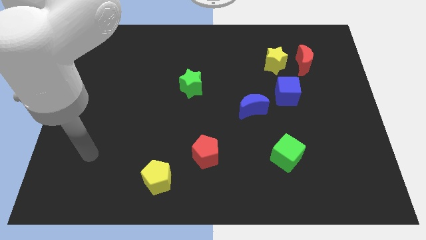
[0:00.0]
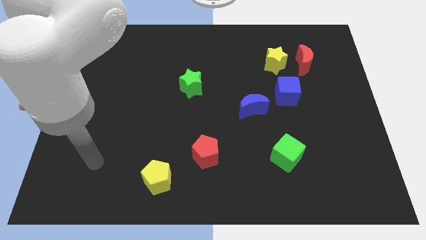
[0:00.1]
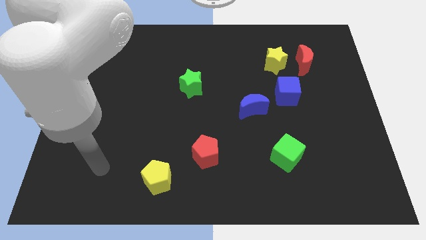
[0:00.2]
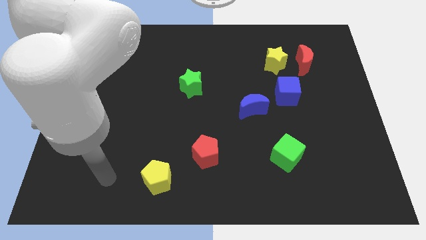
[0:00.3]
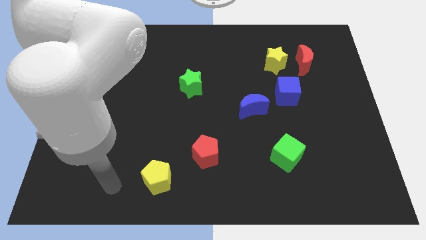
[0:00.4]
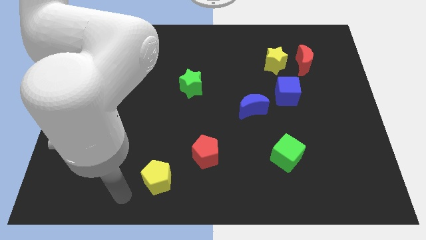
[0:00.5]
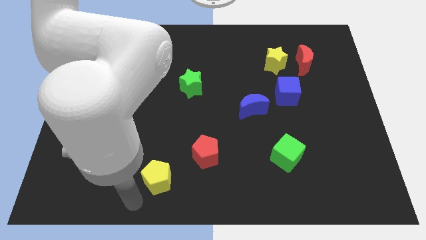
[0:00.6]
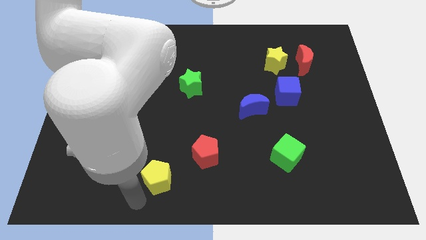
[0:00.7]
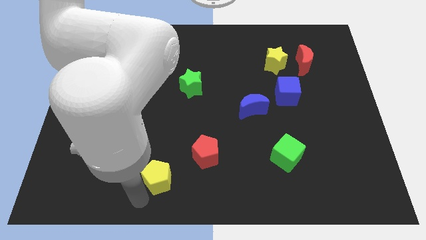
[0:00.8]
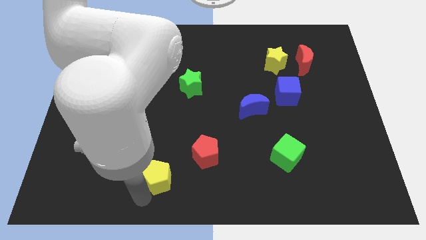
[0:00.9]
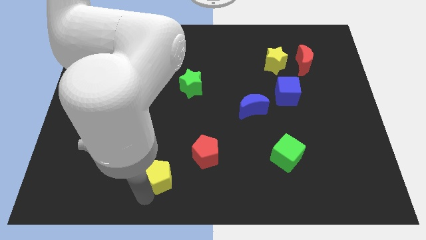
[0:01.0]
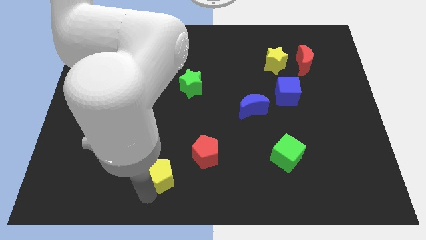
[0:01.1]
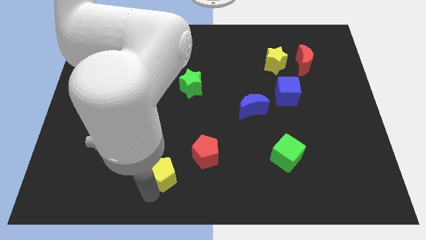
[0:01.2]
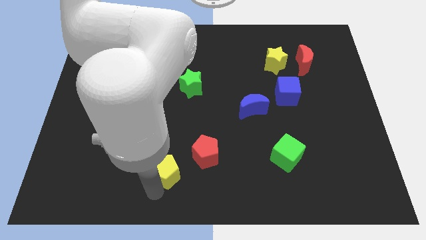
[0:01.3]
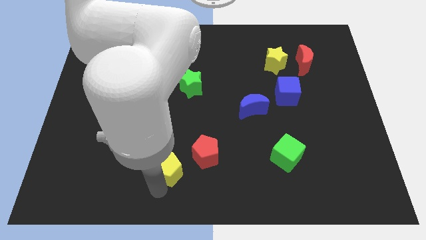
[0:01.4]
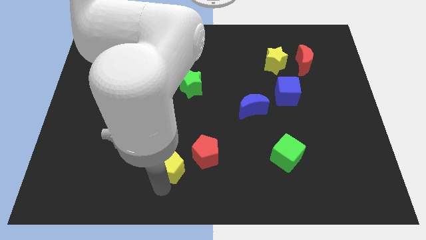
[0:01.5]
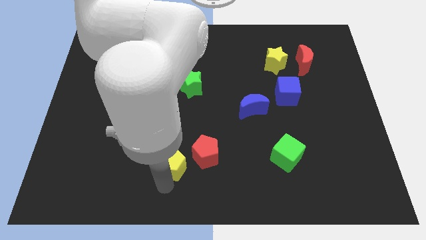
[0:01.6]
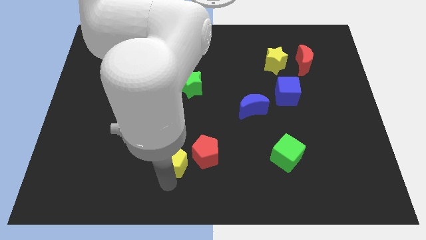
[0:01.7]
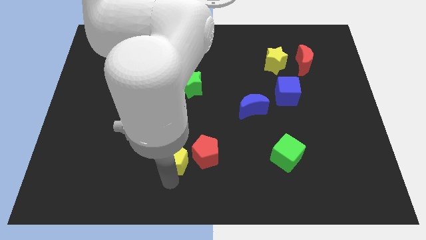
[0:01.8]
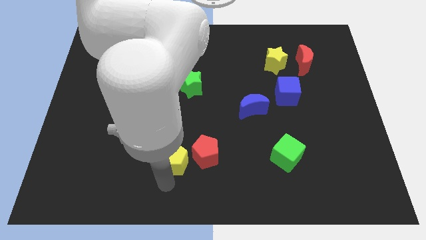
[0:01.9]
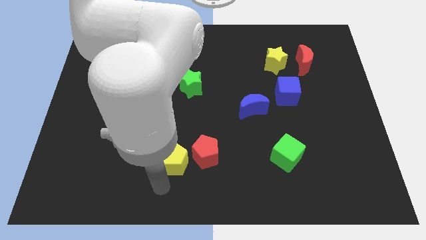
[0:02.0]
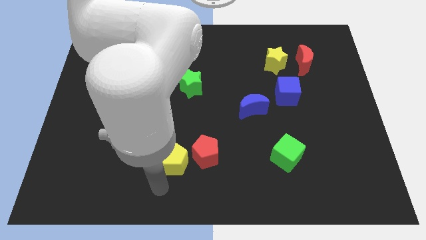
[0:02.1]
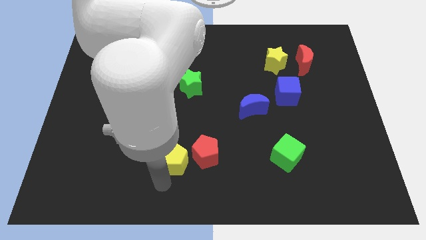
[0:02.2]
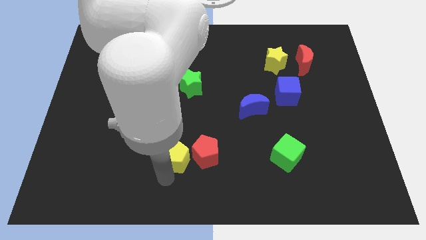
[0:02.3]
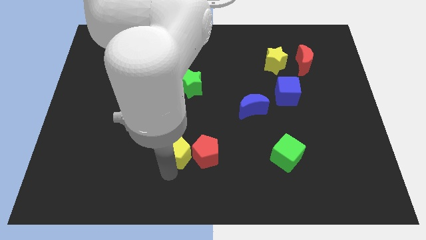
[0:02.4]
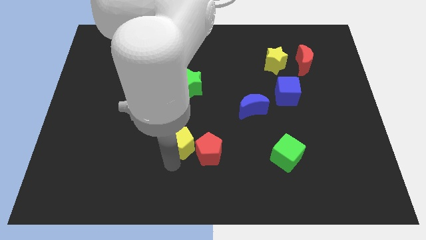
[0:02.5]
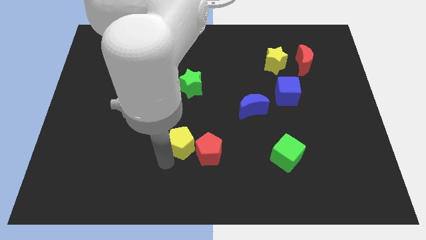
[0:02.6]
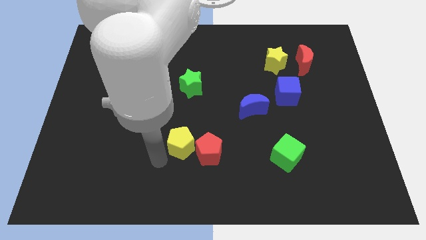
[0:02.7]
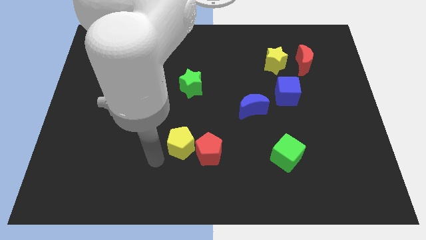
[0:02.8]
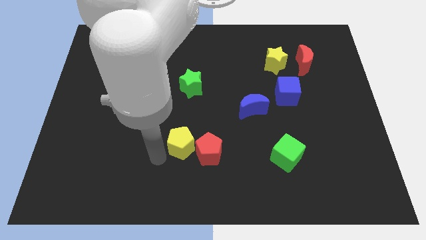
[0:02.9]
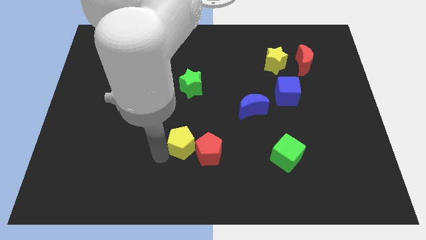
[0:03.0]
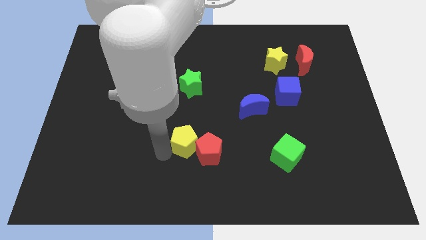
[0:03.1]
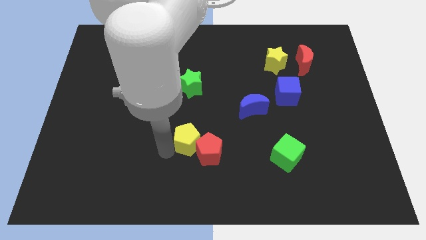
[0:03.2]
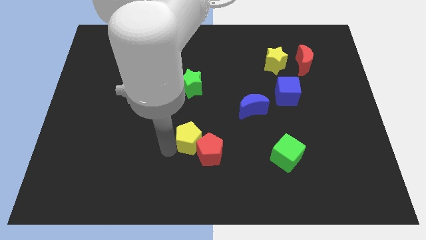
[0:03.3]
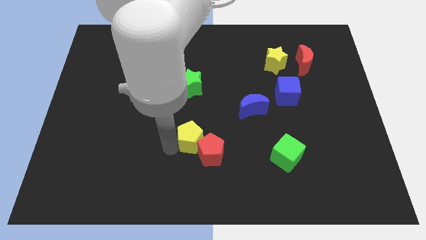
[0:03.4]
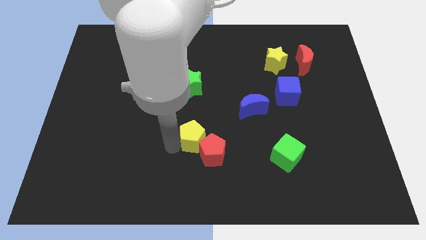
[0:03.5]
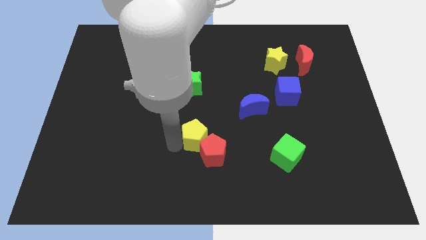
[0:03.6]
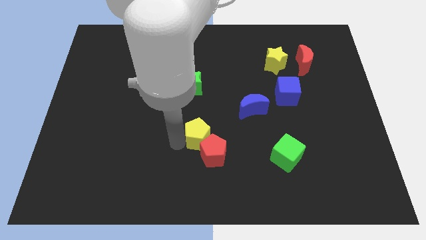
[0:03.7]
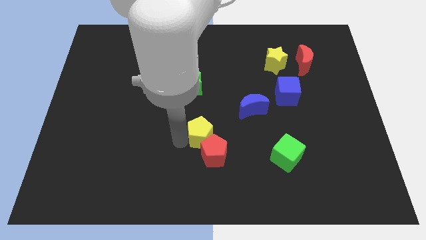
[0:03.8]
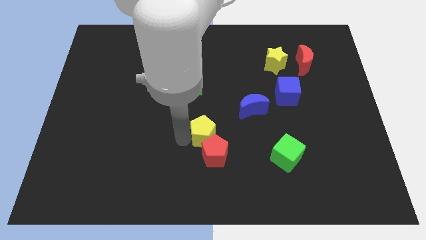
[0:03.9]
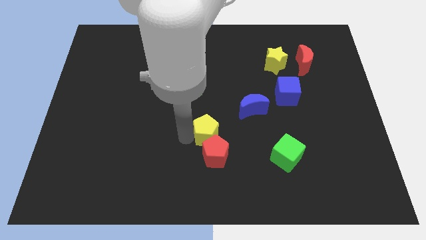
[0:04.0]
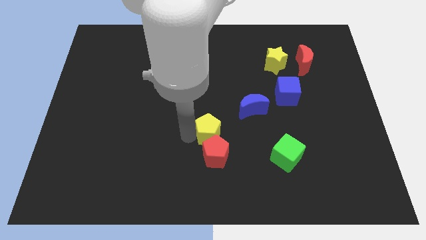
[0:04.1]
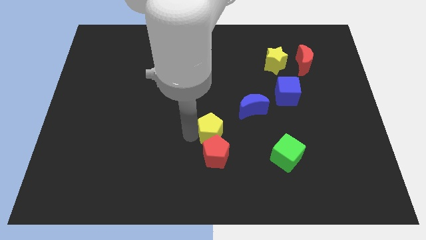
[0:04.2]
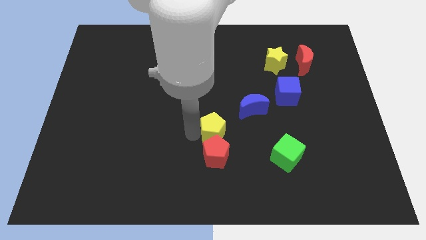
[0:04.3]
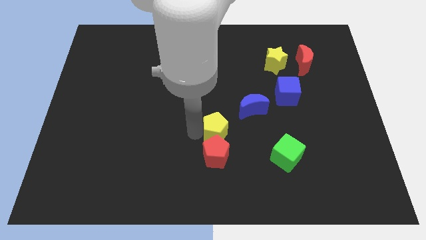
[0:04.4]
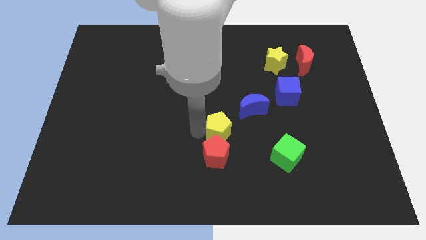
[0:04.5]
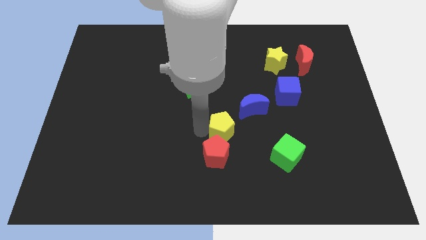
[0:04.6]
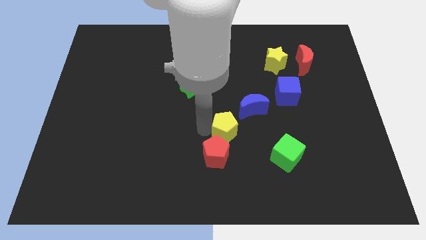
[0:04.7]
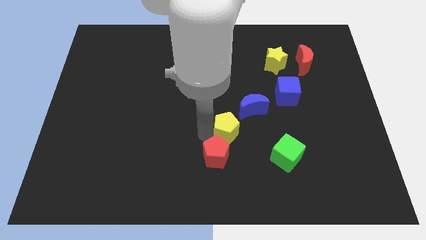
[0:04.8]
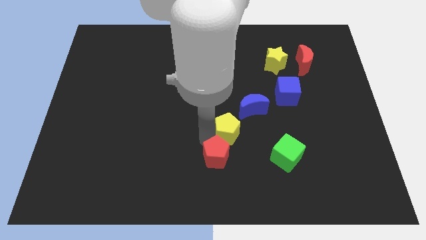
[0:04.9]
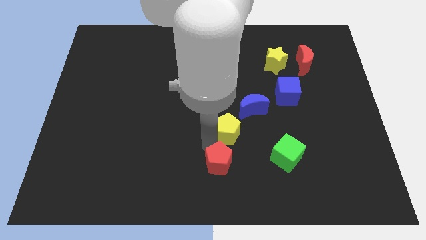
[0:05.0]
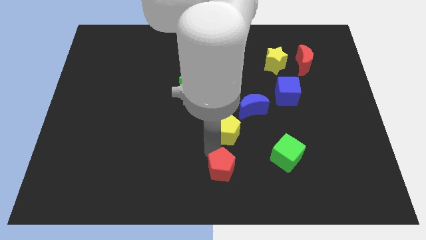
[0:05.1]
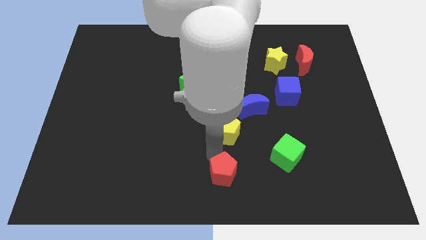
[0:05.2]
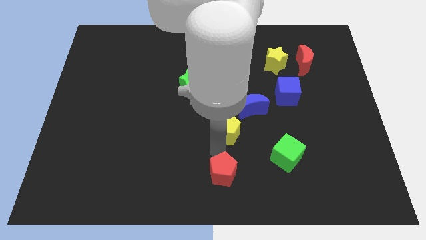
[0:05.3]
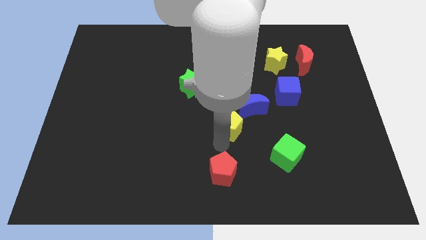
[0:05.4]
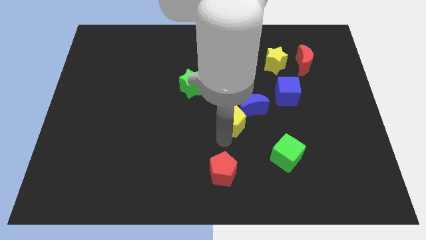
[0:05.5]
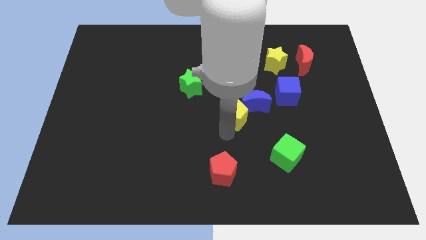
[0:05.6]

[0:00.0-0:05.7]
slide the yellow pentagon towards the blue moon

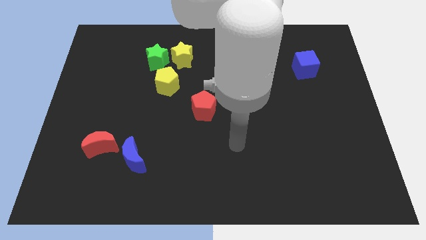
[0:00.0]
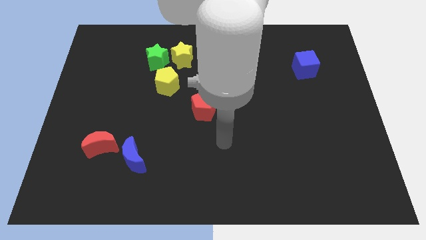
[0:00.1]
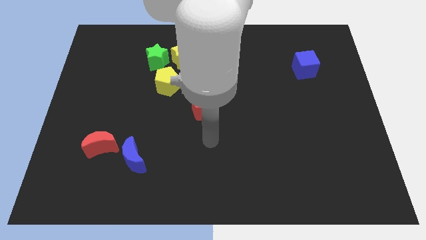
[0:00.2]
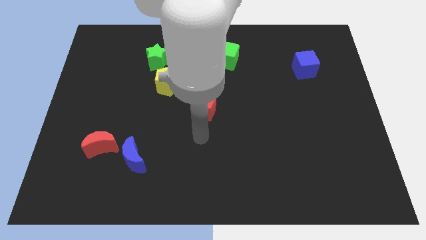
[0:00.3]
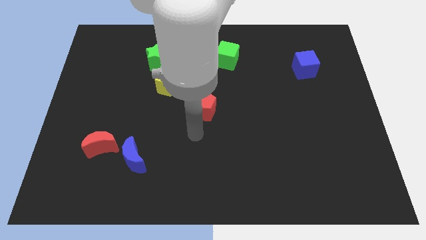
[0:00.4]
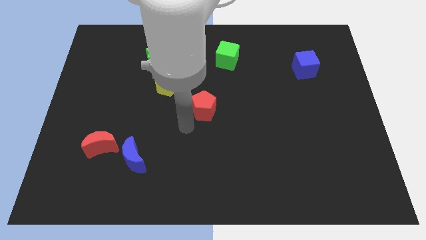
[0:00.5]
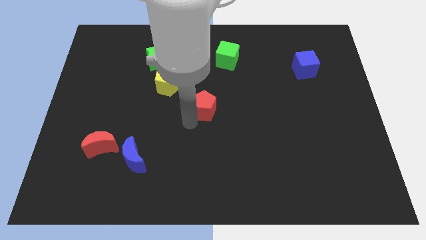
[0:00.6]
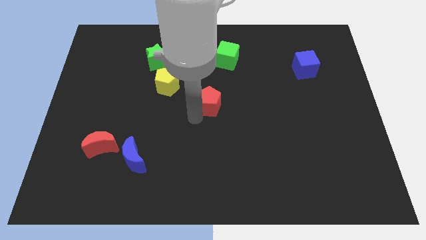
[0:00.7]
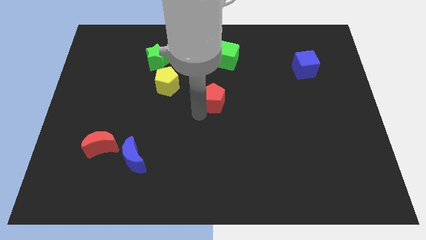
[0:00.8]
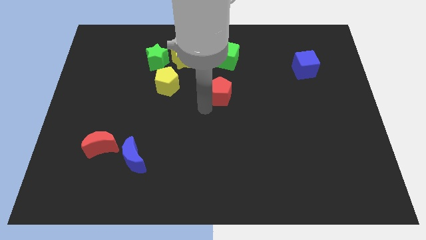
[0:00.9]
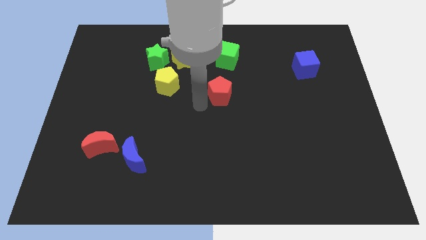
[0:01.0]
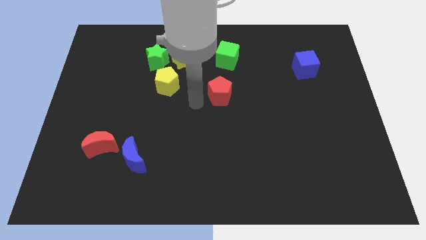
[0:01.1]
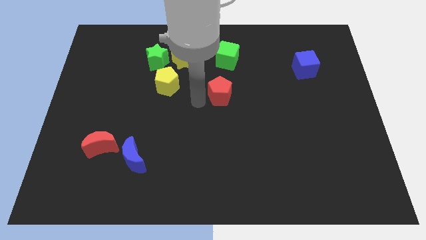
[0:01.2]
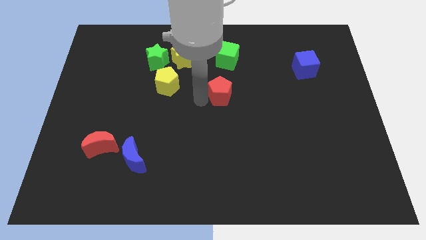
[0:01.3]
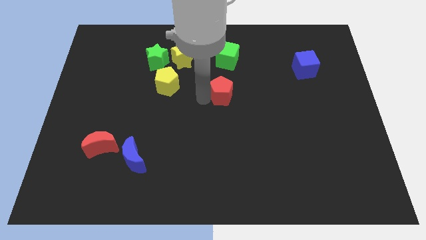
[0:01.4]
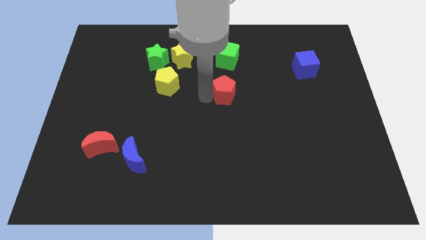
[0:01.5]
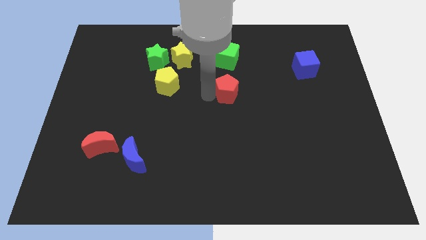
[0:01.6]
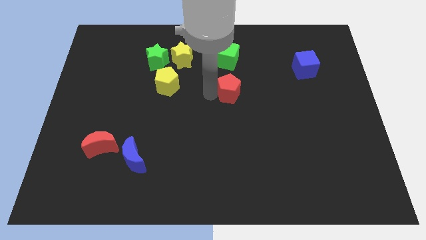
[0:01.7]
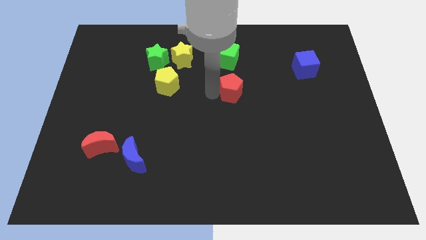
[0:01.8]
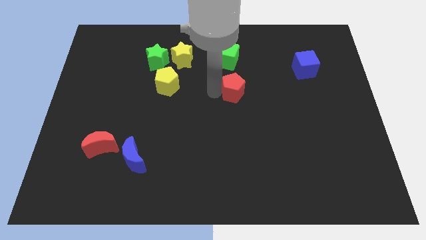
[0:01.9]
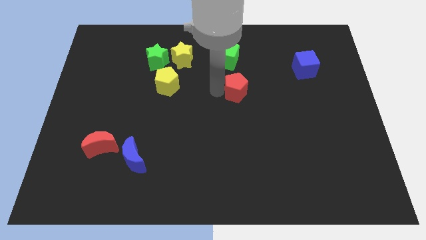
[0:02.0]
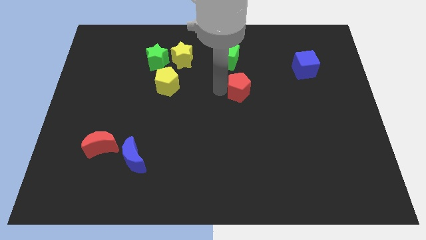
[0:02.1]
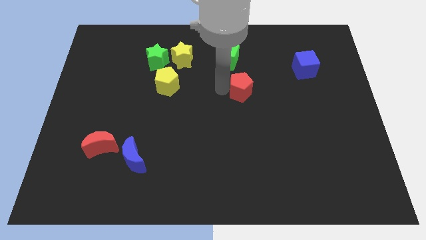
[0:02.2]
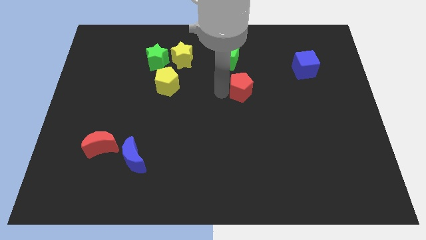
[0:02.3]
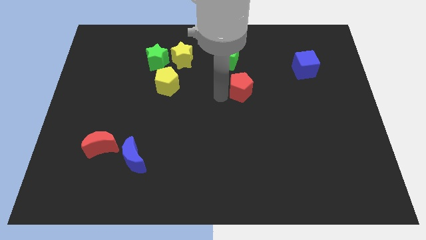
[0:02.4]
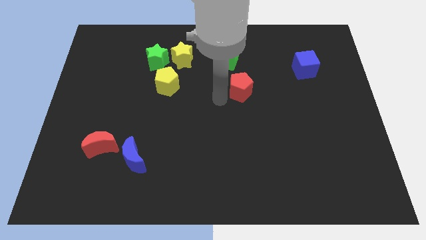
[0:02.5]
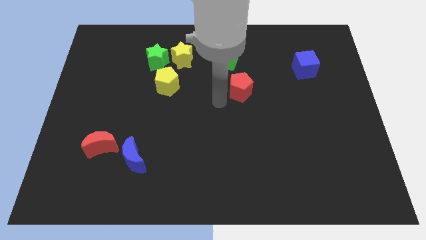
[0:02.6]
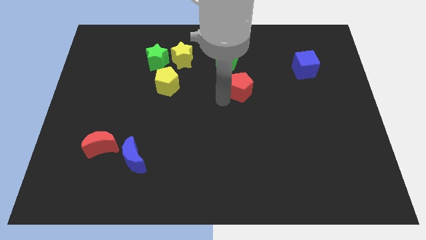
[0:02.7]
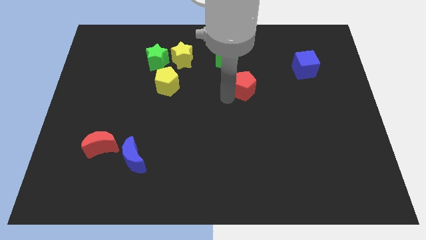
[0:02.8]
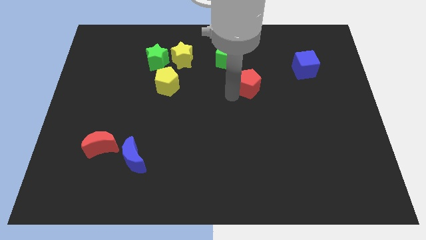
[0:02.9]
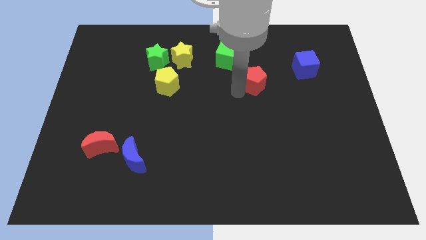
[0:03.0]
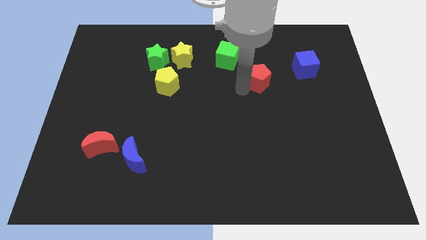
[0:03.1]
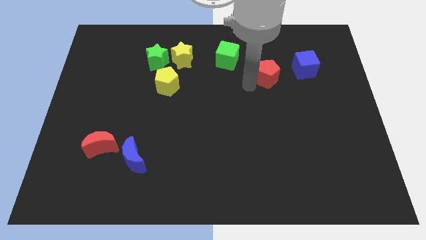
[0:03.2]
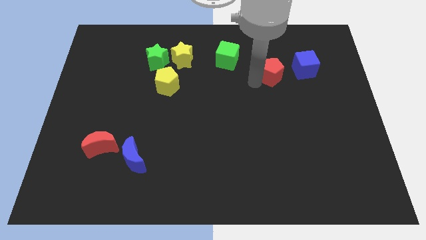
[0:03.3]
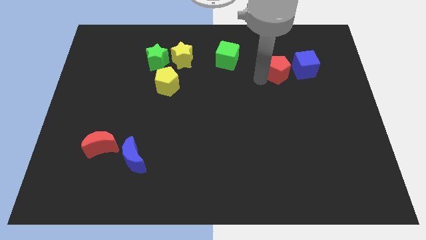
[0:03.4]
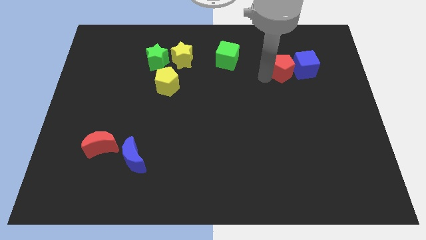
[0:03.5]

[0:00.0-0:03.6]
put the red pentagon towards the blue cube
